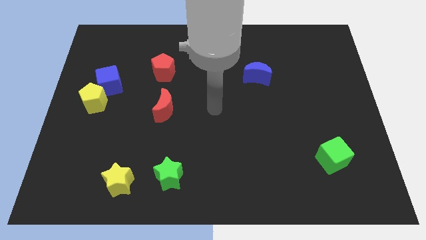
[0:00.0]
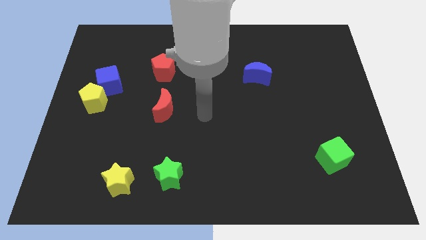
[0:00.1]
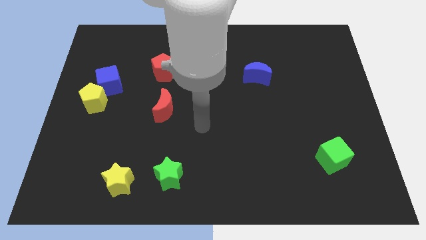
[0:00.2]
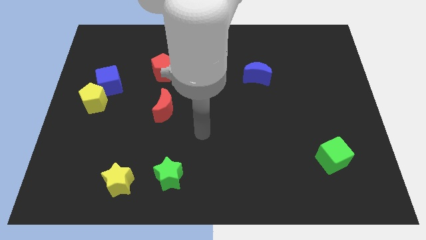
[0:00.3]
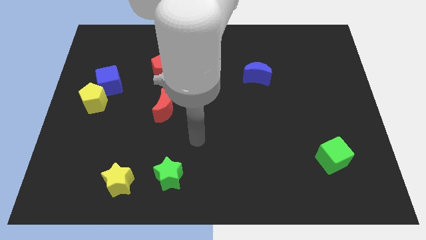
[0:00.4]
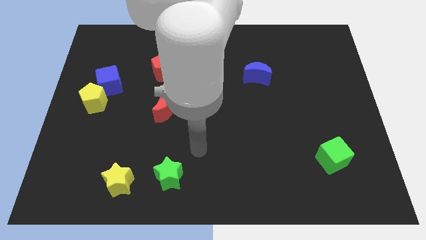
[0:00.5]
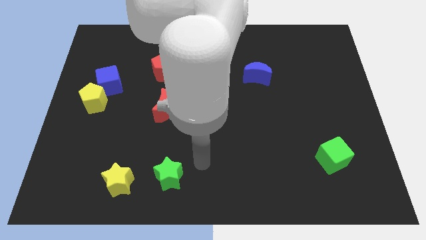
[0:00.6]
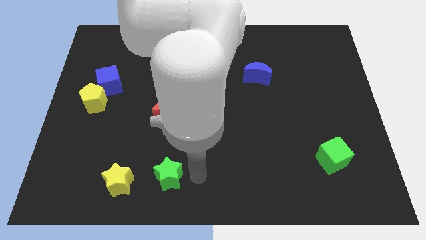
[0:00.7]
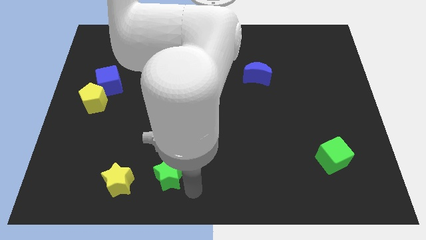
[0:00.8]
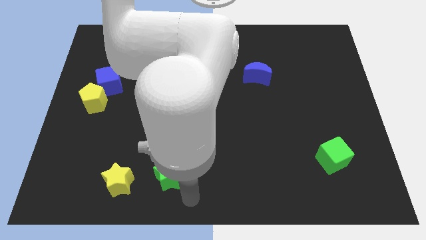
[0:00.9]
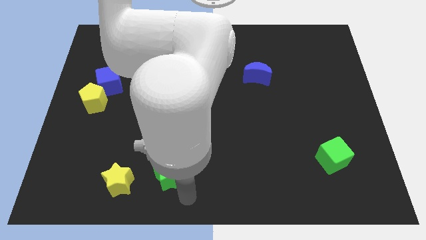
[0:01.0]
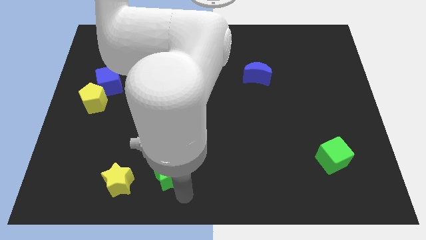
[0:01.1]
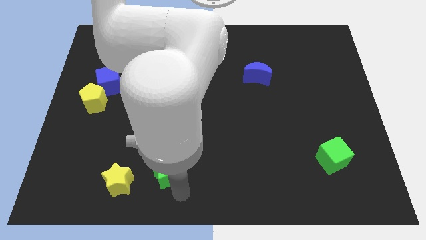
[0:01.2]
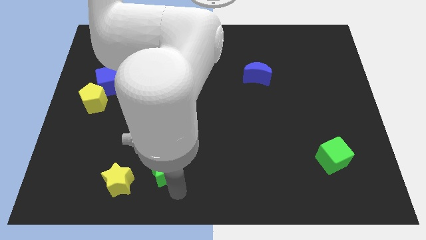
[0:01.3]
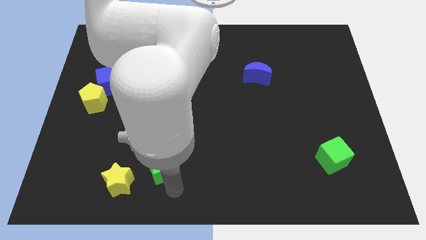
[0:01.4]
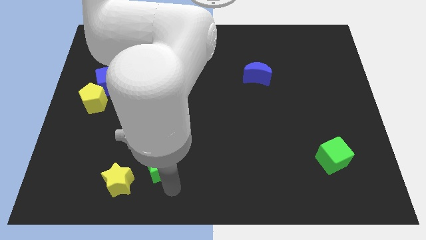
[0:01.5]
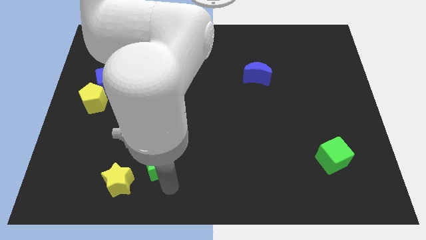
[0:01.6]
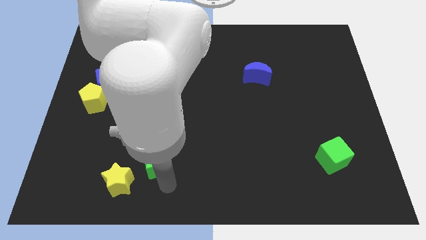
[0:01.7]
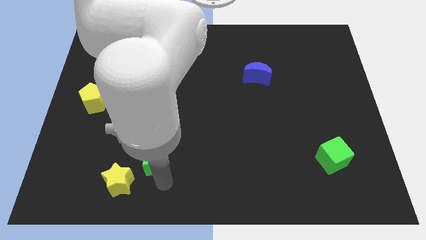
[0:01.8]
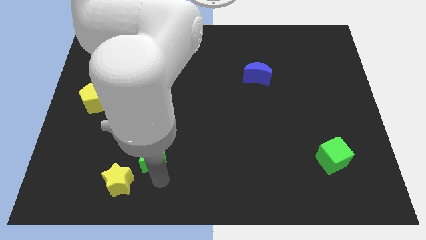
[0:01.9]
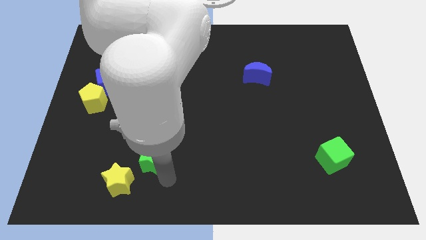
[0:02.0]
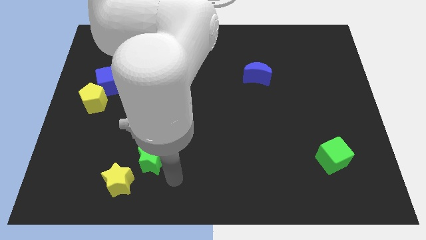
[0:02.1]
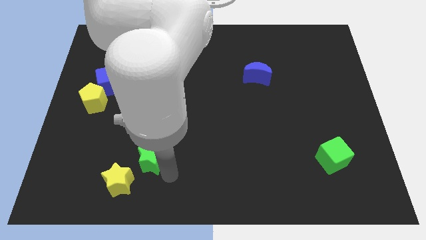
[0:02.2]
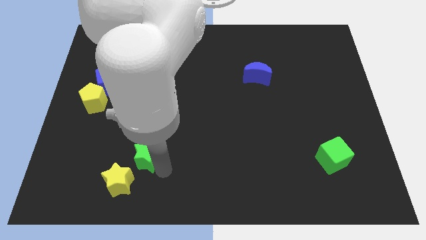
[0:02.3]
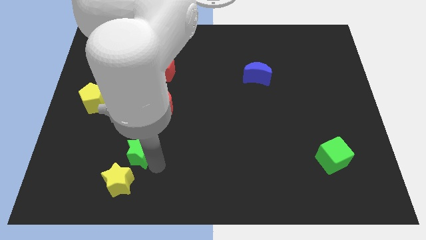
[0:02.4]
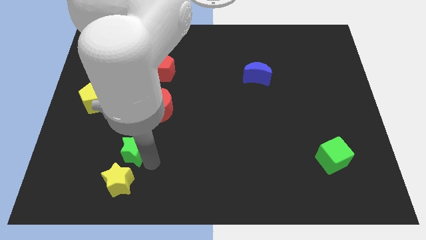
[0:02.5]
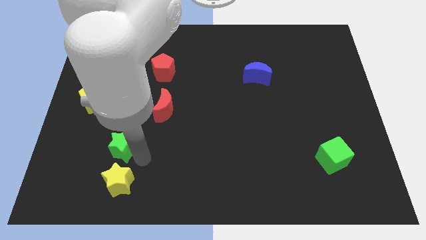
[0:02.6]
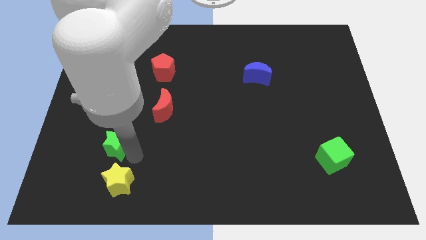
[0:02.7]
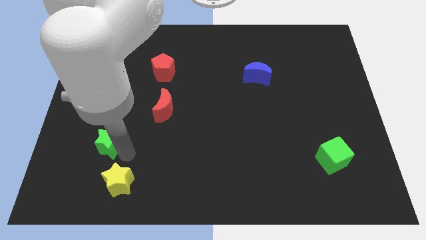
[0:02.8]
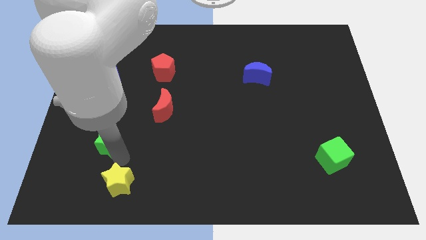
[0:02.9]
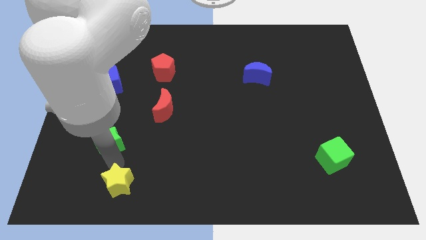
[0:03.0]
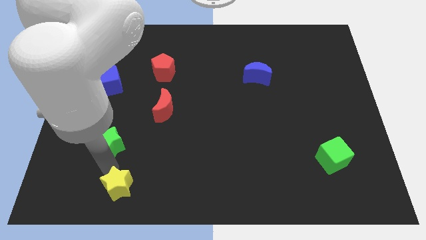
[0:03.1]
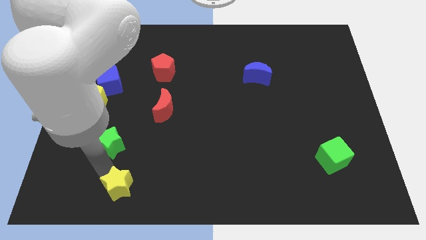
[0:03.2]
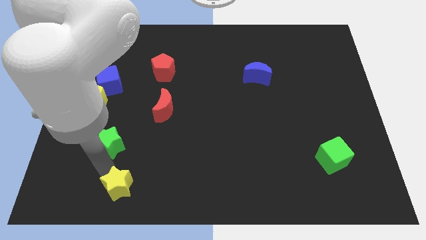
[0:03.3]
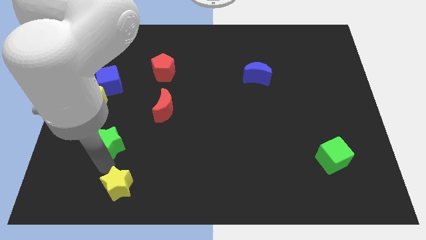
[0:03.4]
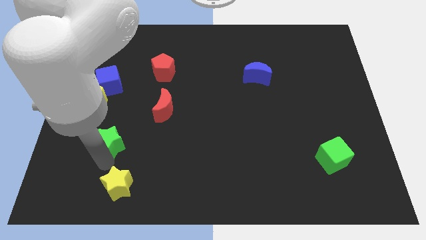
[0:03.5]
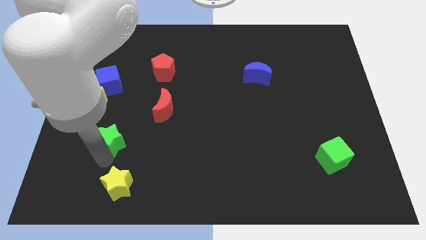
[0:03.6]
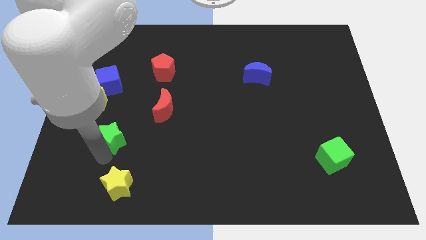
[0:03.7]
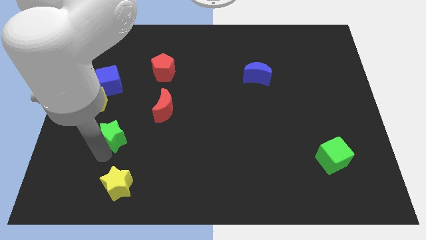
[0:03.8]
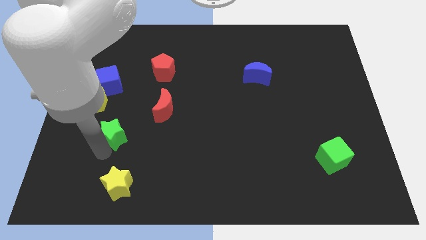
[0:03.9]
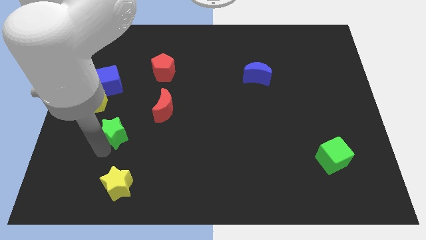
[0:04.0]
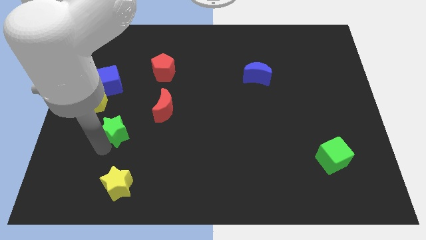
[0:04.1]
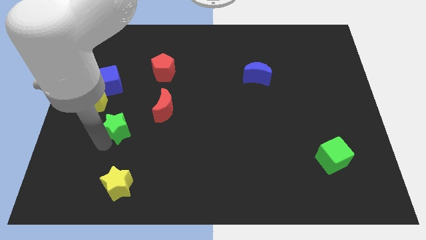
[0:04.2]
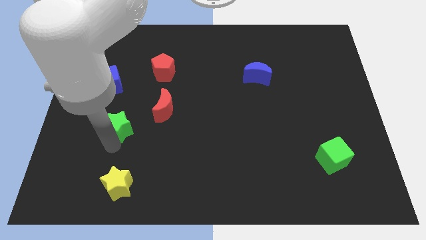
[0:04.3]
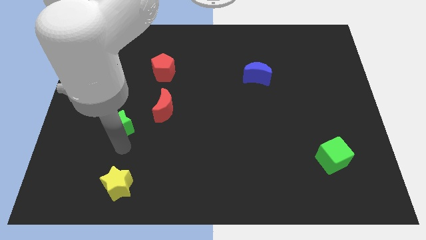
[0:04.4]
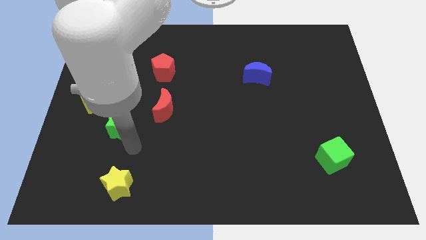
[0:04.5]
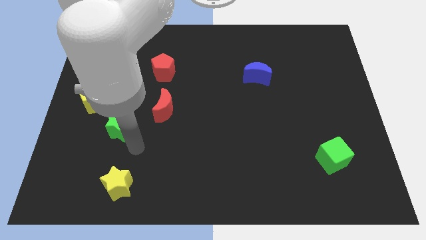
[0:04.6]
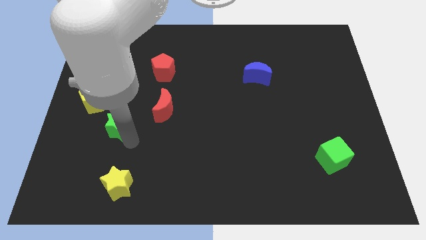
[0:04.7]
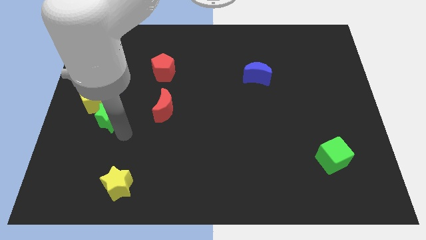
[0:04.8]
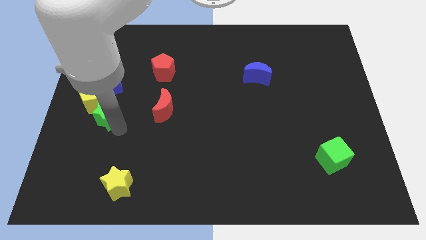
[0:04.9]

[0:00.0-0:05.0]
push the green star next to the yellow pentagon

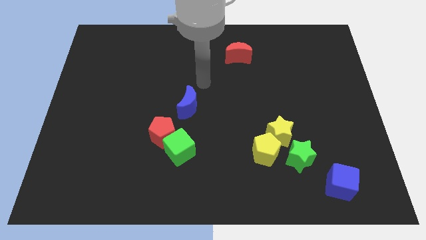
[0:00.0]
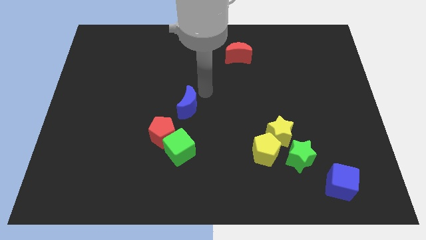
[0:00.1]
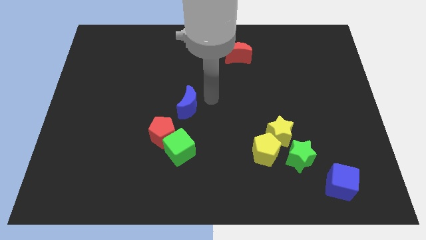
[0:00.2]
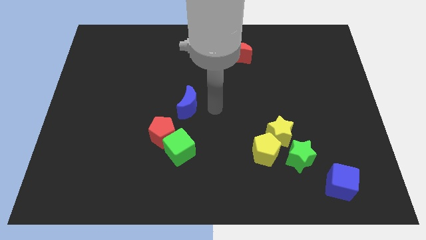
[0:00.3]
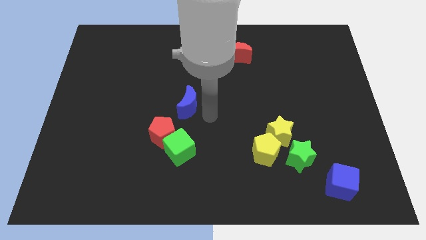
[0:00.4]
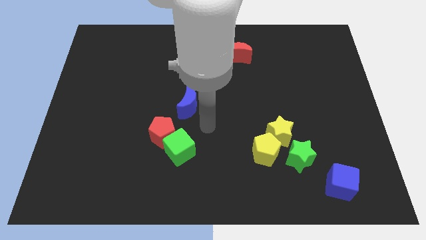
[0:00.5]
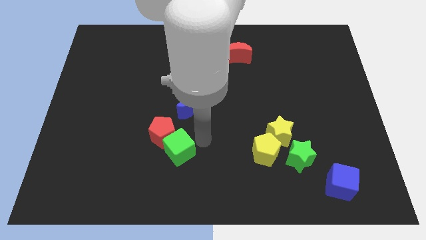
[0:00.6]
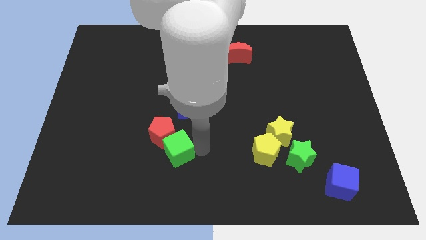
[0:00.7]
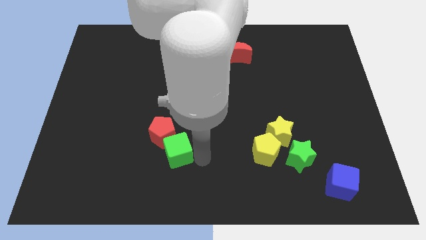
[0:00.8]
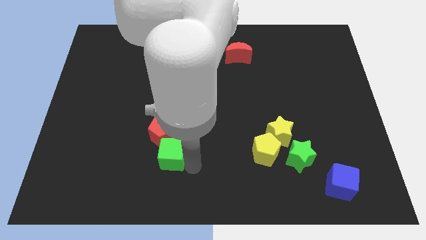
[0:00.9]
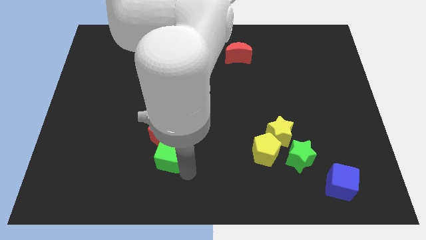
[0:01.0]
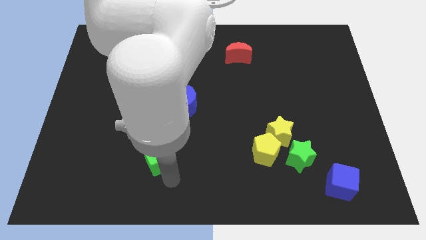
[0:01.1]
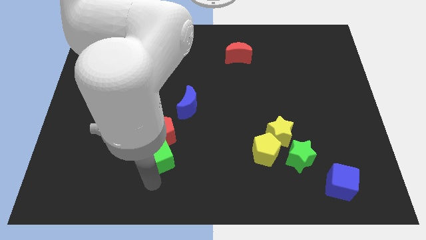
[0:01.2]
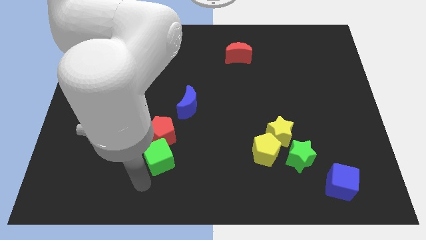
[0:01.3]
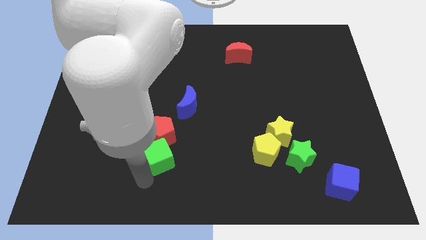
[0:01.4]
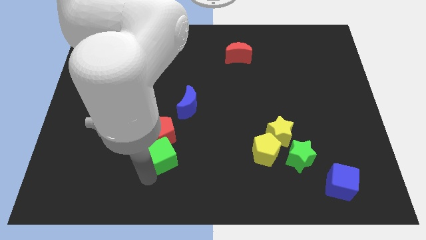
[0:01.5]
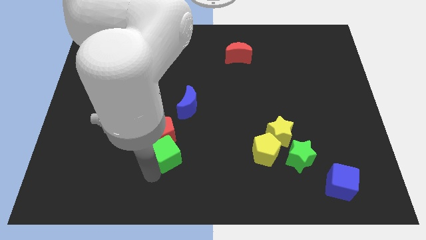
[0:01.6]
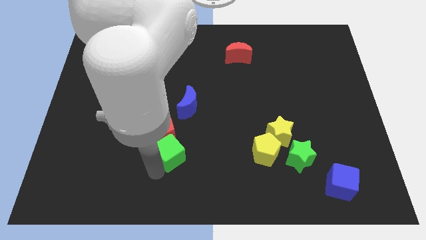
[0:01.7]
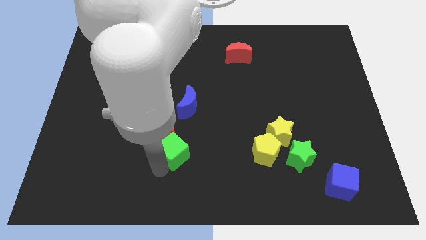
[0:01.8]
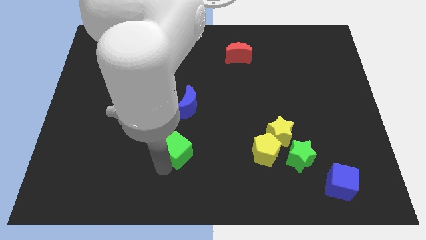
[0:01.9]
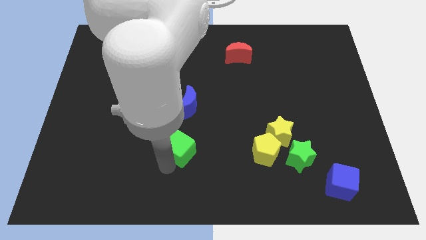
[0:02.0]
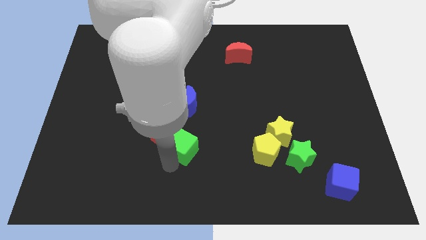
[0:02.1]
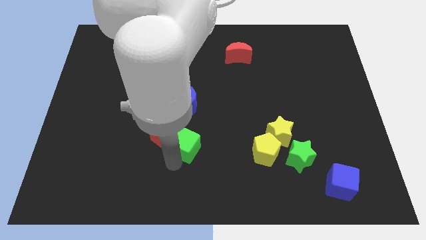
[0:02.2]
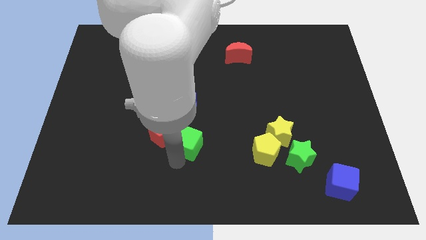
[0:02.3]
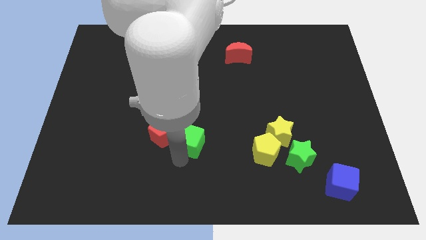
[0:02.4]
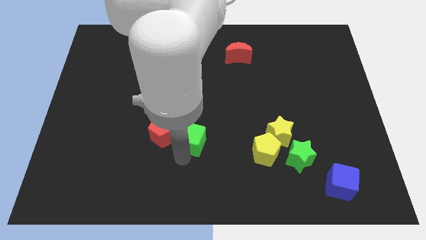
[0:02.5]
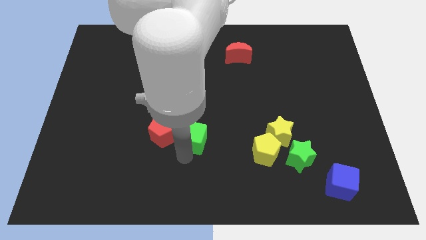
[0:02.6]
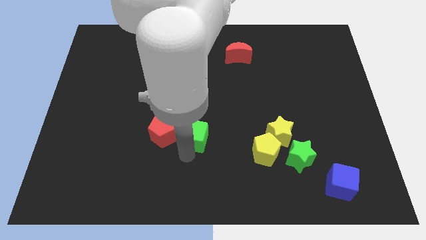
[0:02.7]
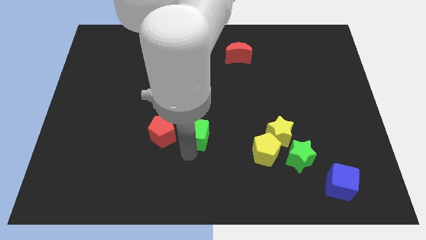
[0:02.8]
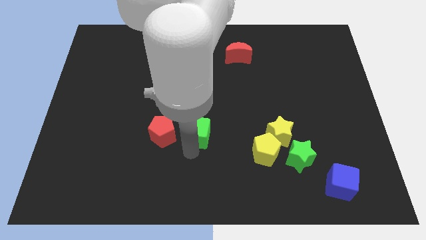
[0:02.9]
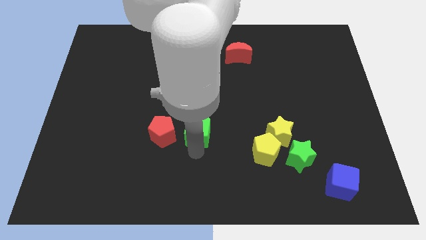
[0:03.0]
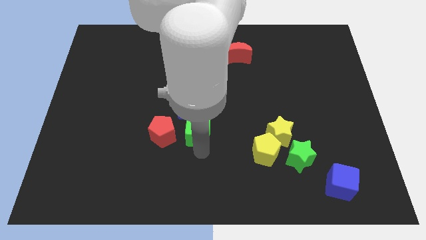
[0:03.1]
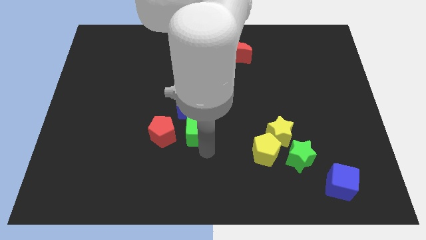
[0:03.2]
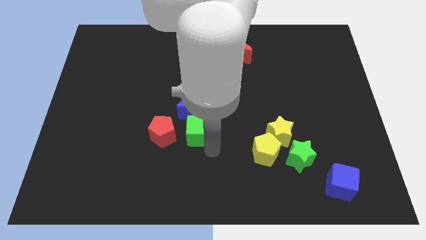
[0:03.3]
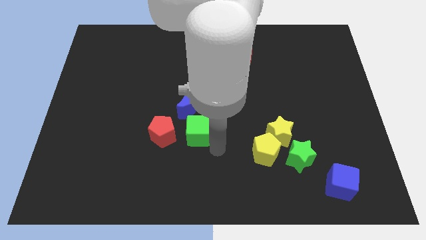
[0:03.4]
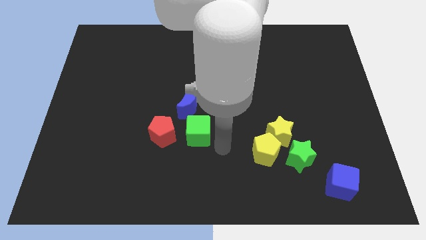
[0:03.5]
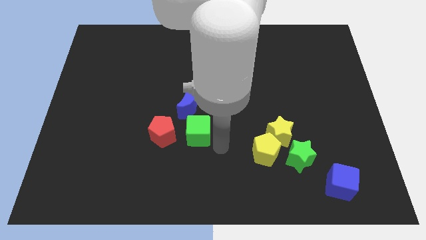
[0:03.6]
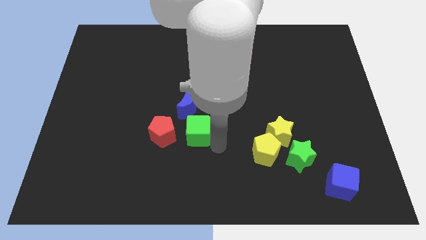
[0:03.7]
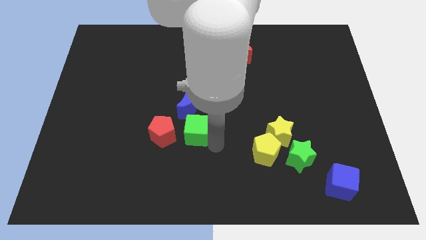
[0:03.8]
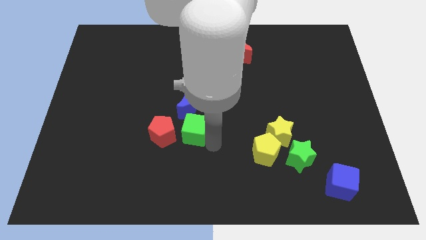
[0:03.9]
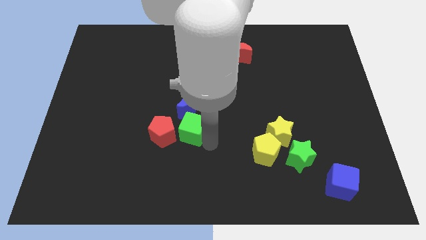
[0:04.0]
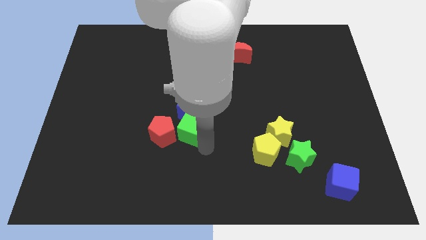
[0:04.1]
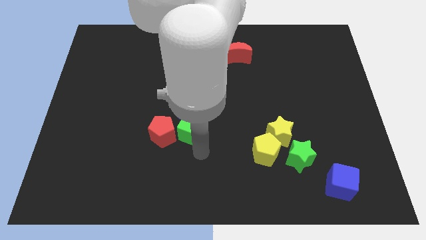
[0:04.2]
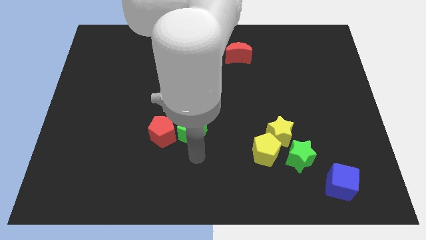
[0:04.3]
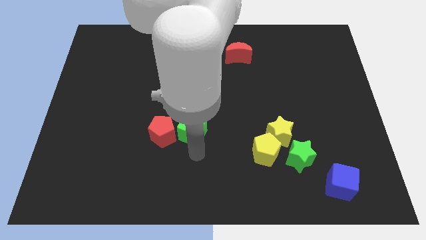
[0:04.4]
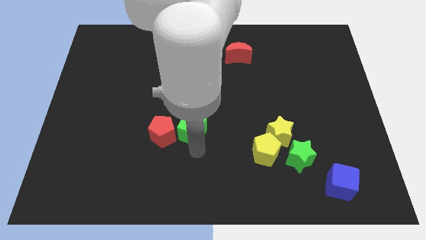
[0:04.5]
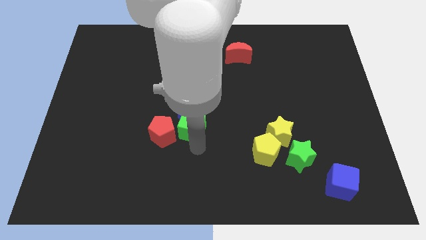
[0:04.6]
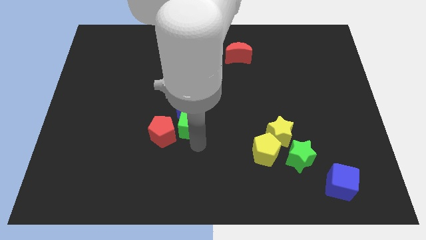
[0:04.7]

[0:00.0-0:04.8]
move the green cube next to the blue moon
